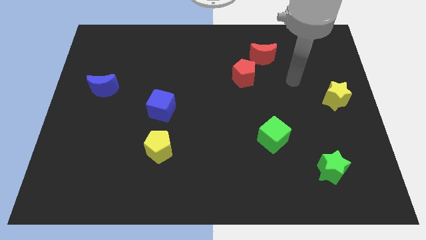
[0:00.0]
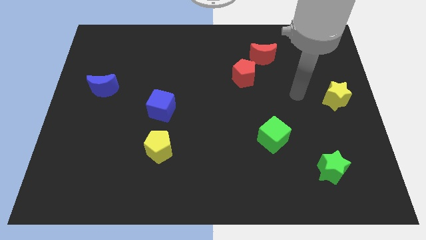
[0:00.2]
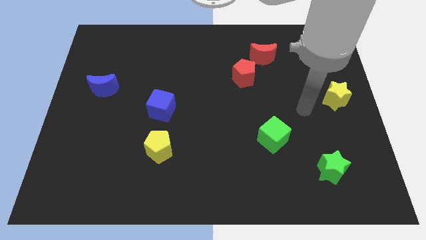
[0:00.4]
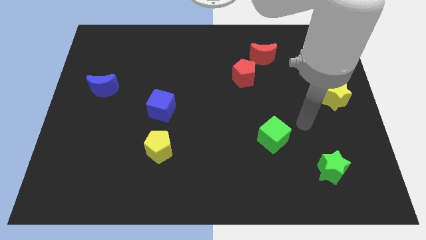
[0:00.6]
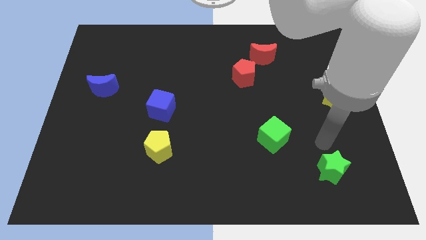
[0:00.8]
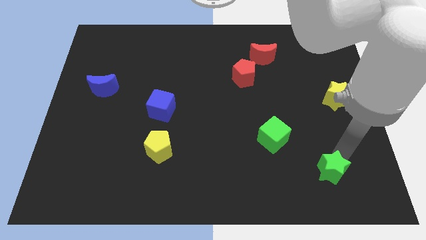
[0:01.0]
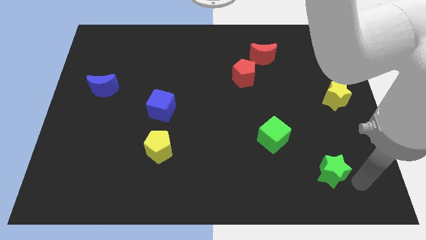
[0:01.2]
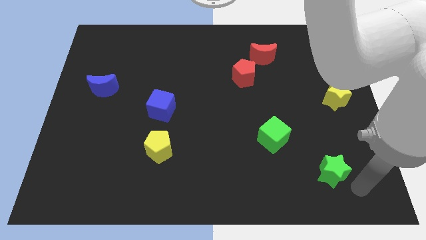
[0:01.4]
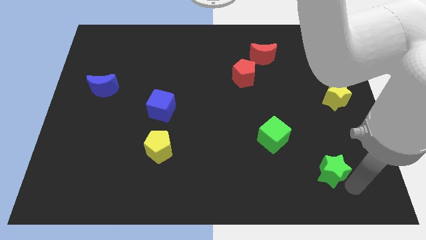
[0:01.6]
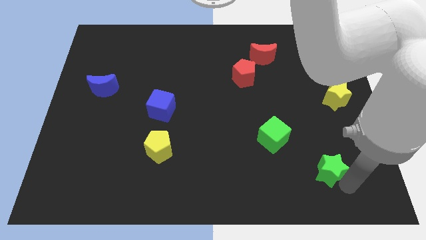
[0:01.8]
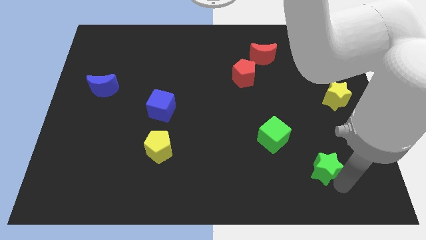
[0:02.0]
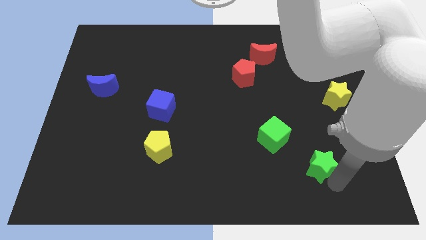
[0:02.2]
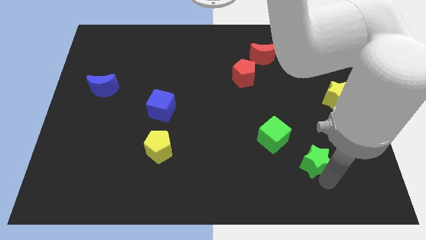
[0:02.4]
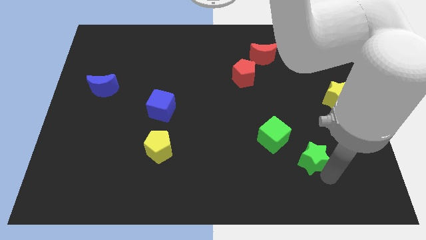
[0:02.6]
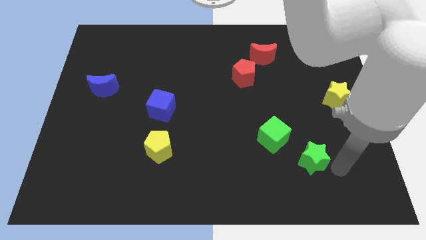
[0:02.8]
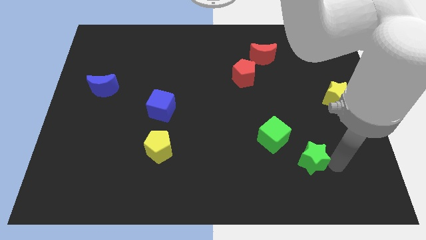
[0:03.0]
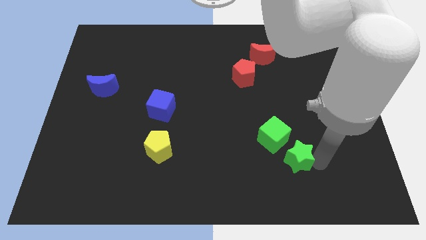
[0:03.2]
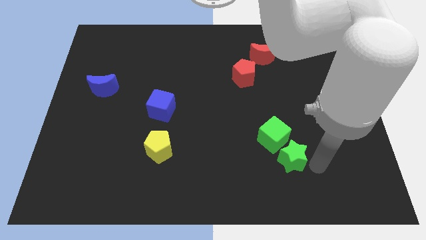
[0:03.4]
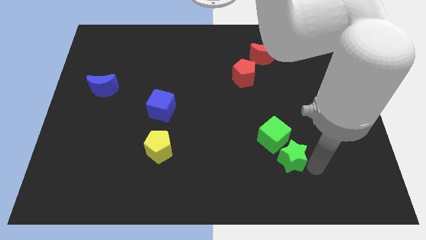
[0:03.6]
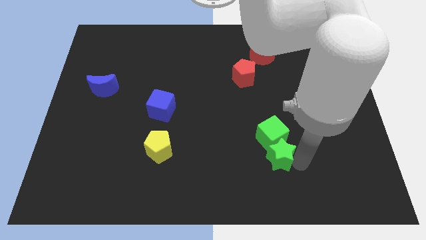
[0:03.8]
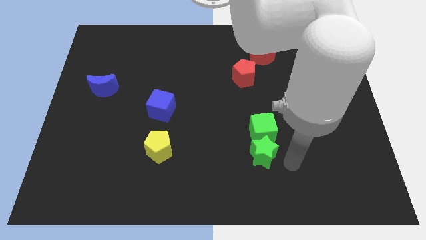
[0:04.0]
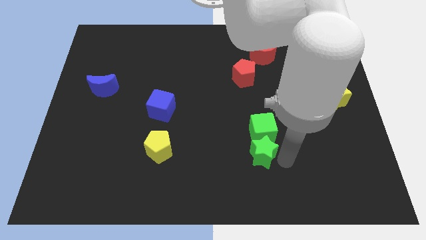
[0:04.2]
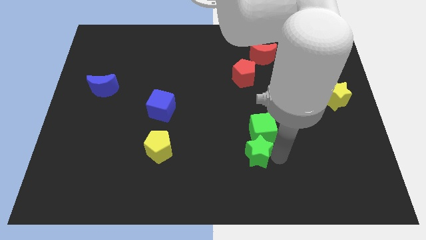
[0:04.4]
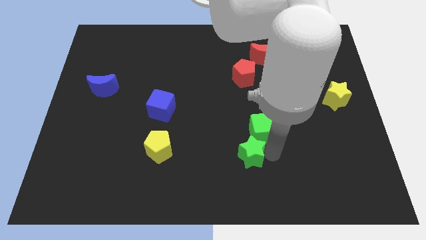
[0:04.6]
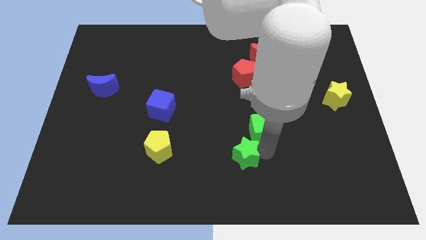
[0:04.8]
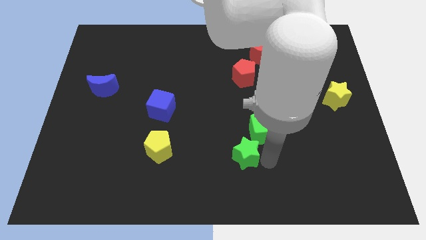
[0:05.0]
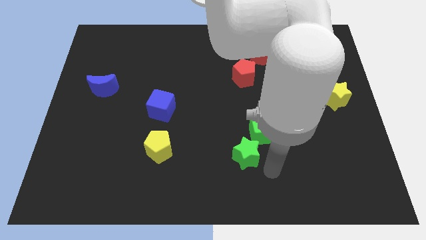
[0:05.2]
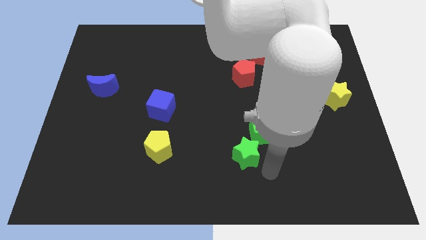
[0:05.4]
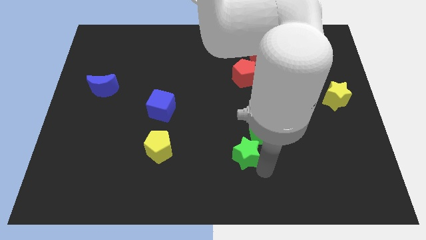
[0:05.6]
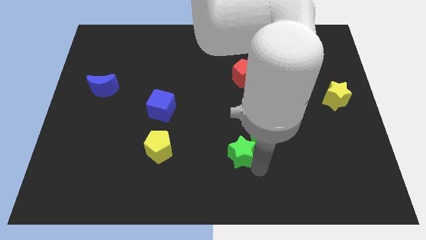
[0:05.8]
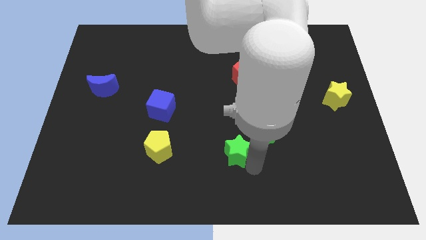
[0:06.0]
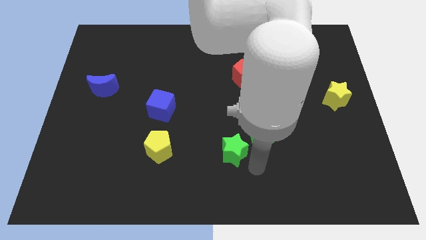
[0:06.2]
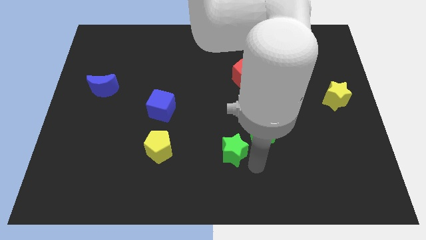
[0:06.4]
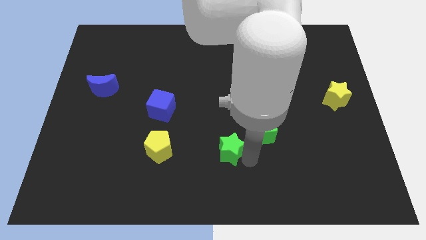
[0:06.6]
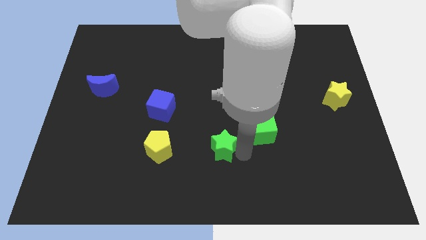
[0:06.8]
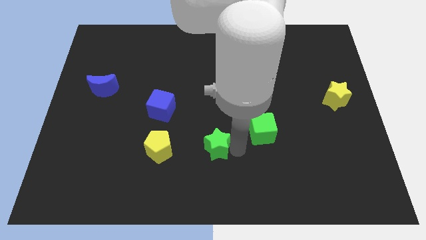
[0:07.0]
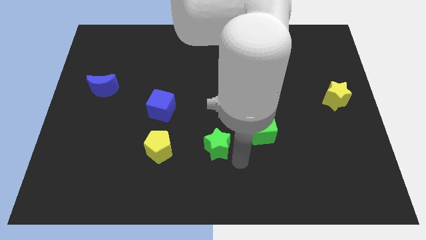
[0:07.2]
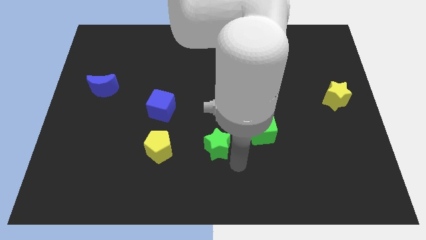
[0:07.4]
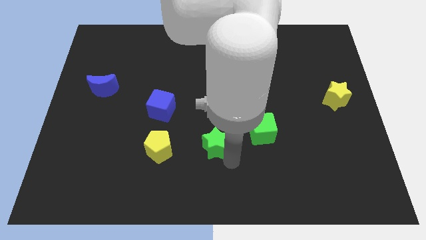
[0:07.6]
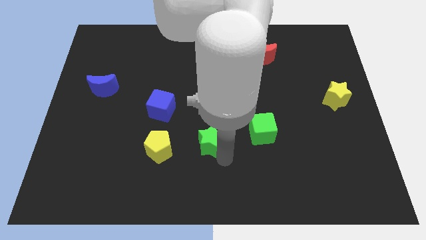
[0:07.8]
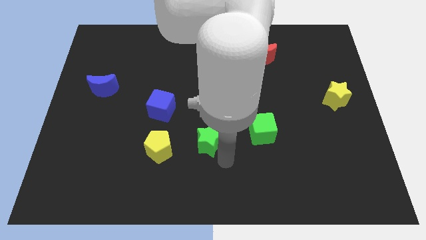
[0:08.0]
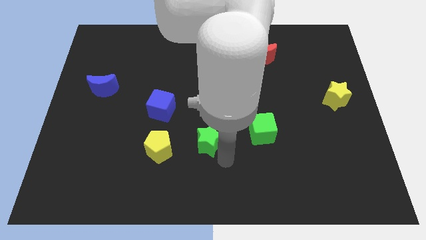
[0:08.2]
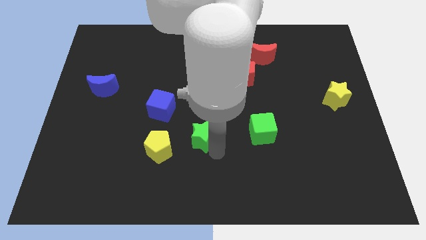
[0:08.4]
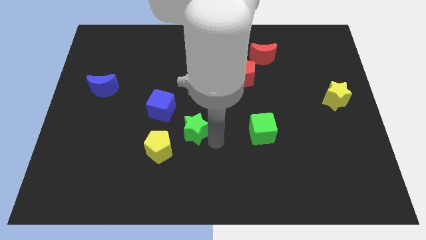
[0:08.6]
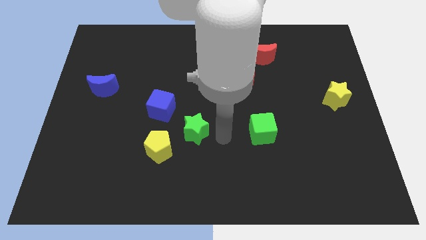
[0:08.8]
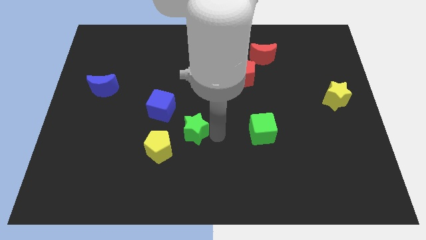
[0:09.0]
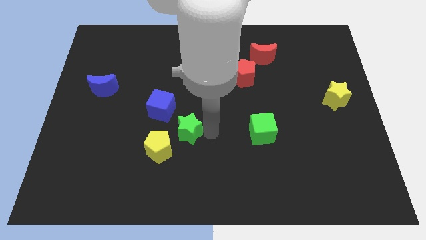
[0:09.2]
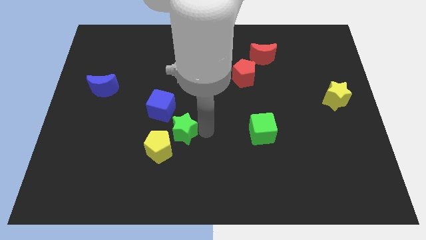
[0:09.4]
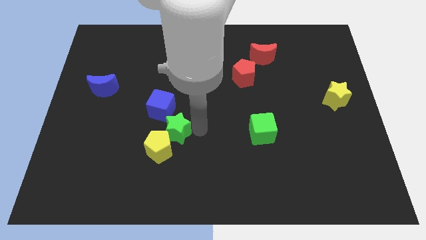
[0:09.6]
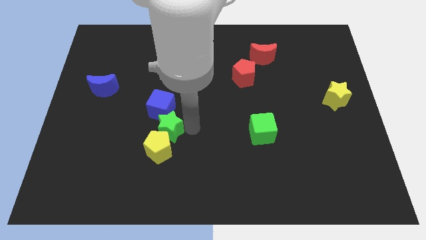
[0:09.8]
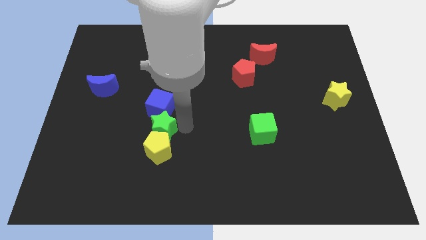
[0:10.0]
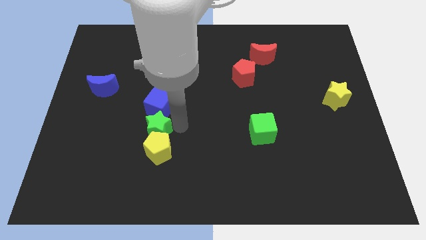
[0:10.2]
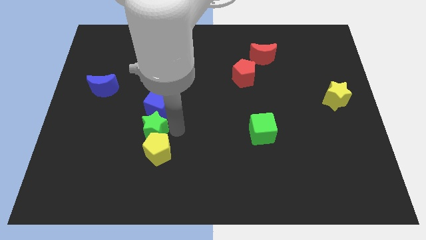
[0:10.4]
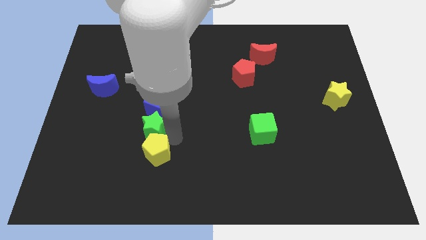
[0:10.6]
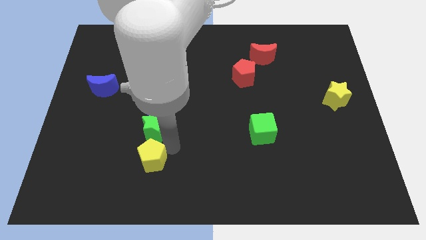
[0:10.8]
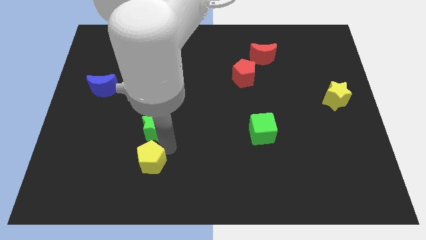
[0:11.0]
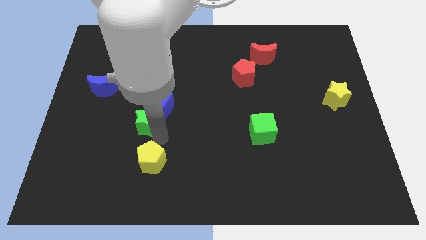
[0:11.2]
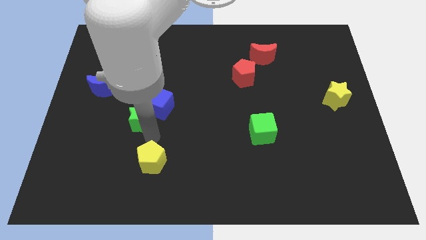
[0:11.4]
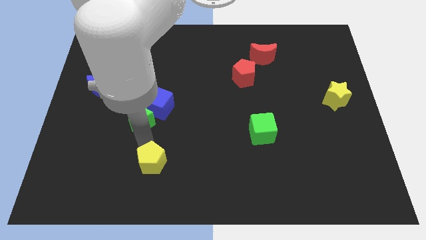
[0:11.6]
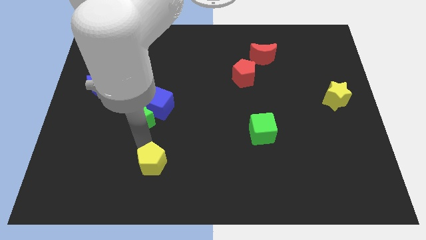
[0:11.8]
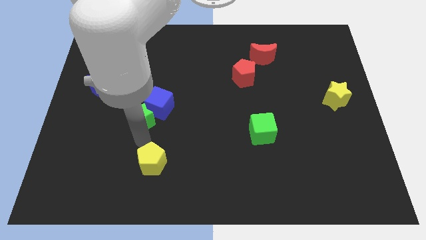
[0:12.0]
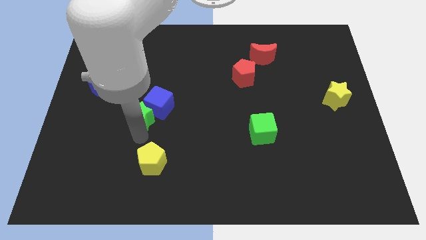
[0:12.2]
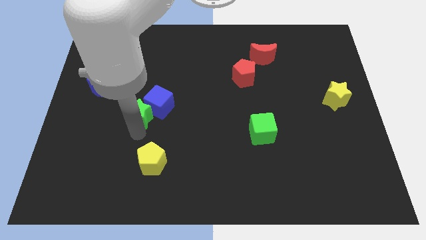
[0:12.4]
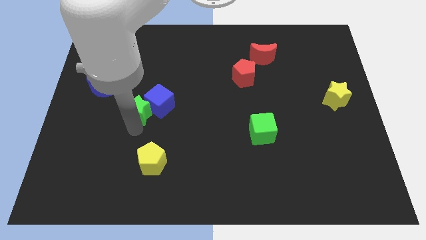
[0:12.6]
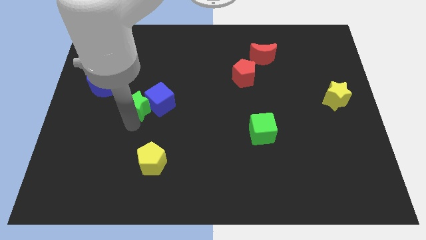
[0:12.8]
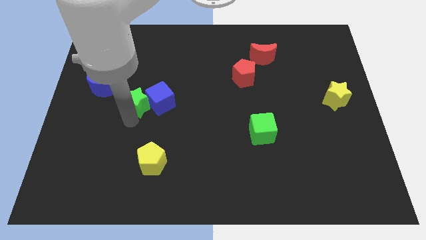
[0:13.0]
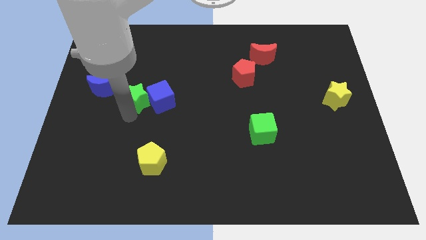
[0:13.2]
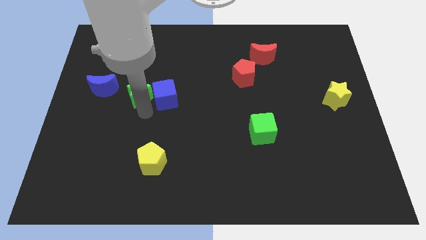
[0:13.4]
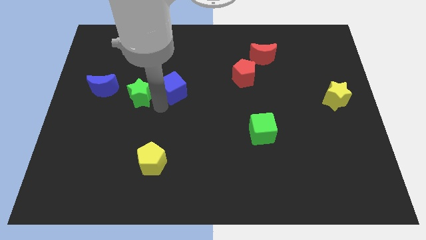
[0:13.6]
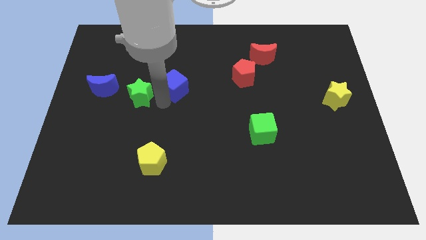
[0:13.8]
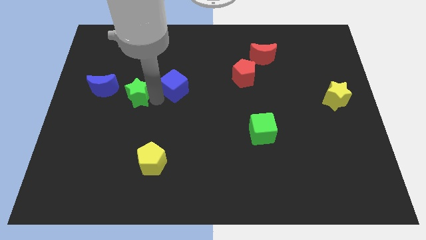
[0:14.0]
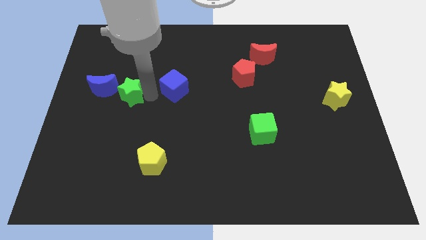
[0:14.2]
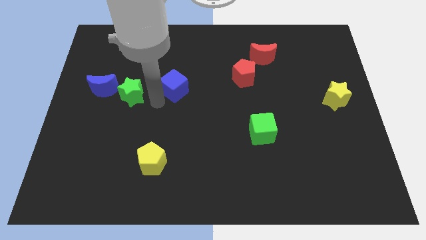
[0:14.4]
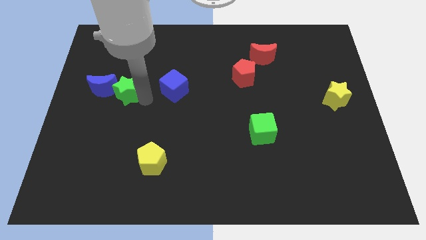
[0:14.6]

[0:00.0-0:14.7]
put the green star towards the blue moon
